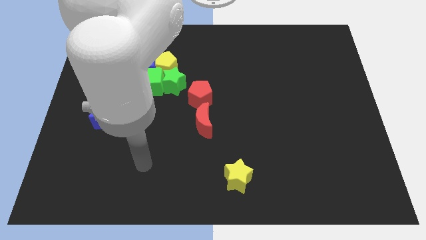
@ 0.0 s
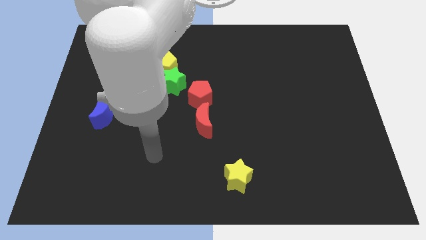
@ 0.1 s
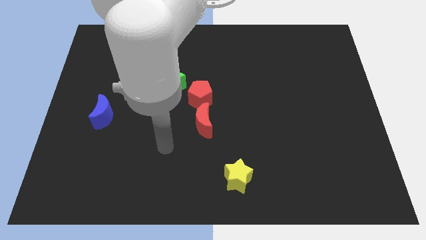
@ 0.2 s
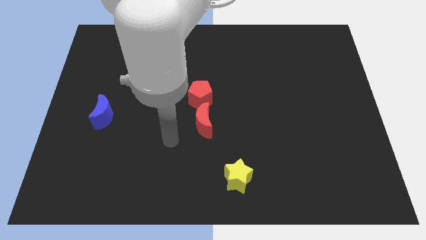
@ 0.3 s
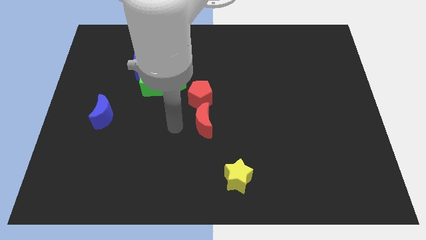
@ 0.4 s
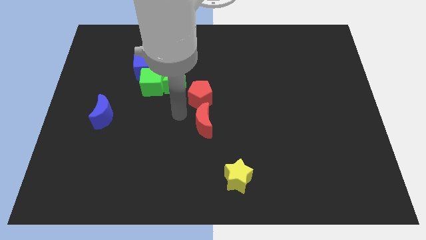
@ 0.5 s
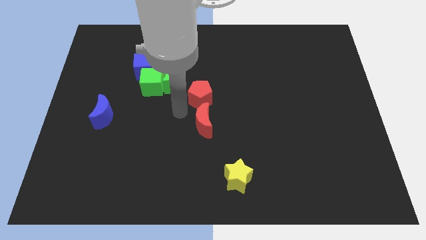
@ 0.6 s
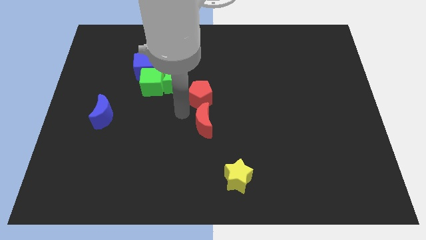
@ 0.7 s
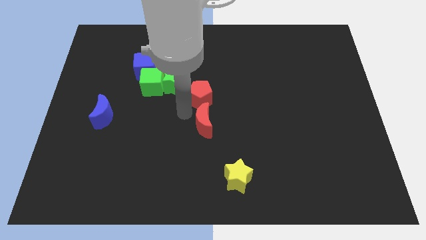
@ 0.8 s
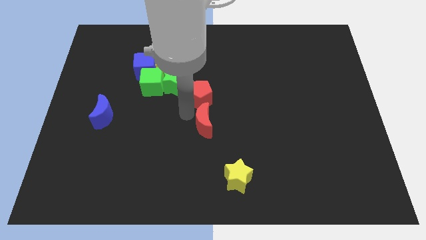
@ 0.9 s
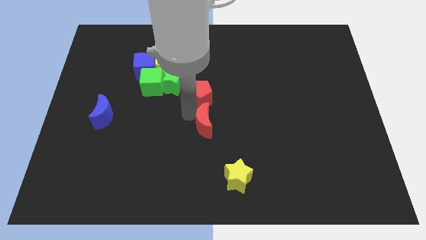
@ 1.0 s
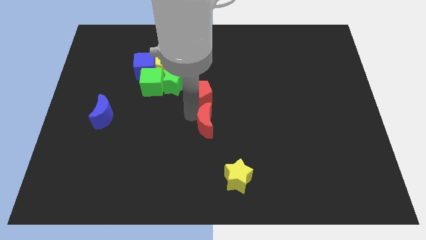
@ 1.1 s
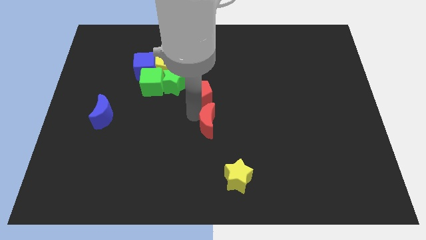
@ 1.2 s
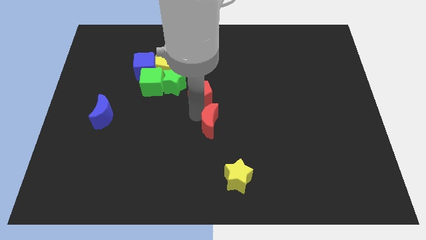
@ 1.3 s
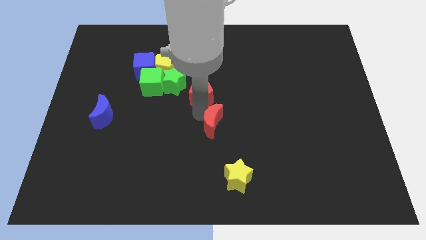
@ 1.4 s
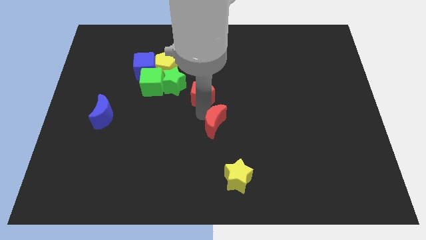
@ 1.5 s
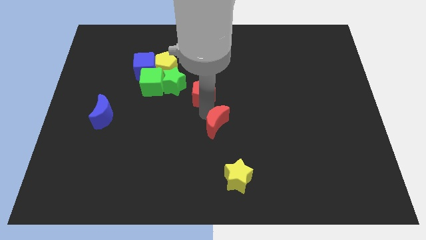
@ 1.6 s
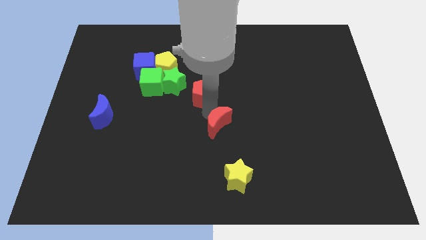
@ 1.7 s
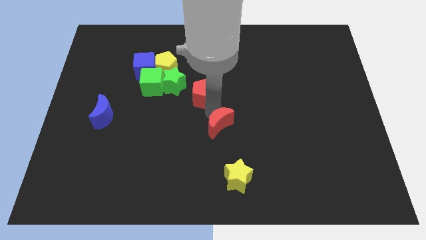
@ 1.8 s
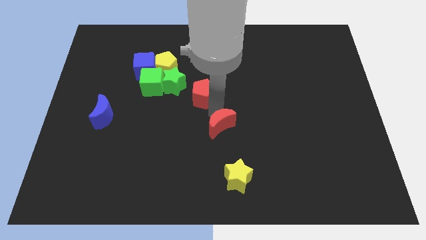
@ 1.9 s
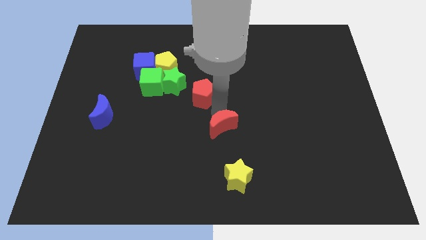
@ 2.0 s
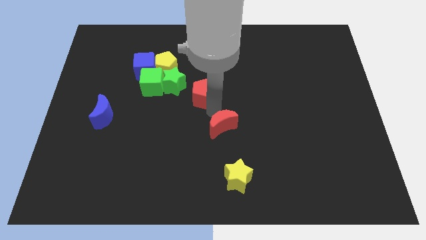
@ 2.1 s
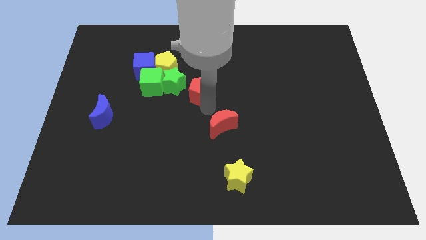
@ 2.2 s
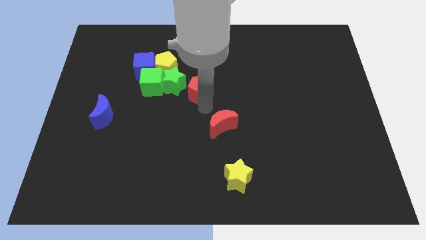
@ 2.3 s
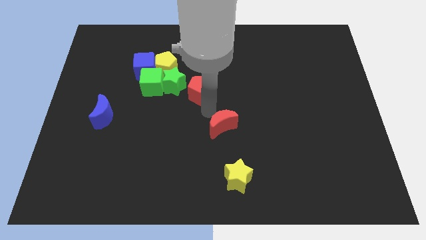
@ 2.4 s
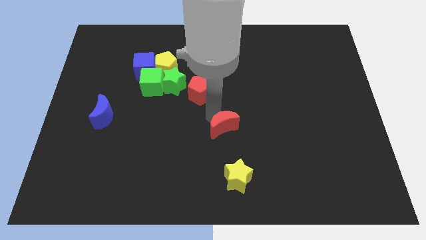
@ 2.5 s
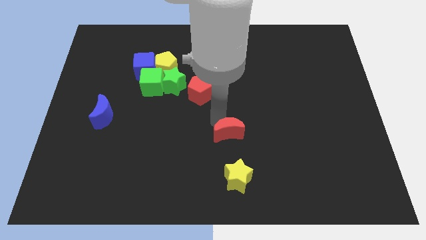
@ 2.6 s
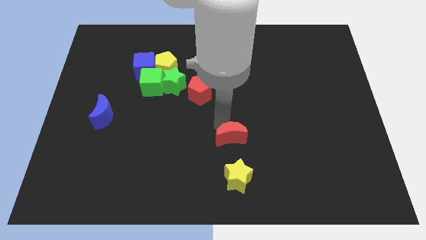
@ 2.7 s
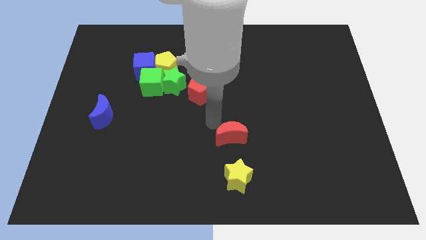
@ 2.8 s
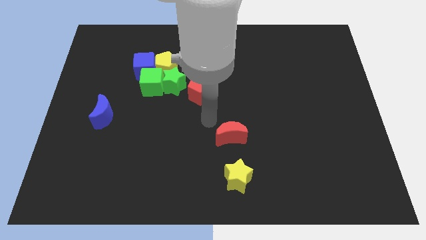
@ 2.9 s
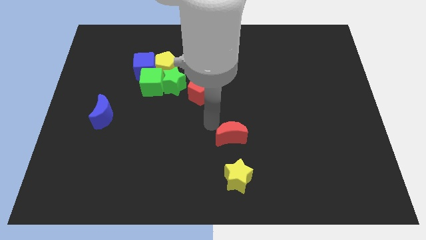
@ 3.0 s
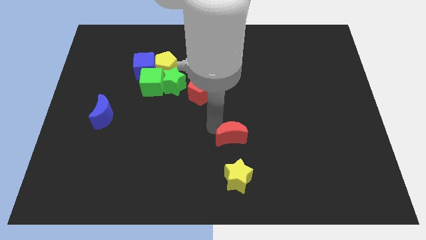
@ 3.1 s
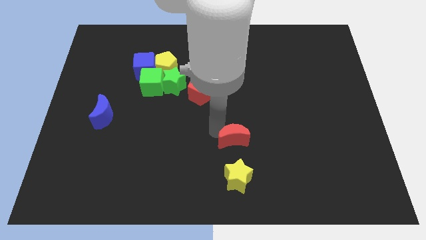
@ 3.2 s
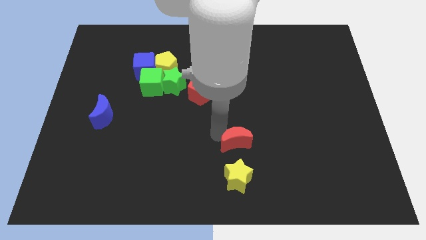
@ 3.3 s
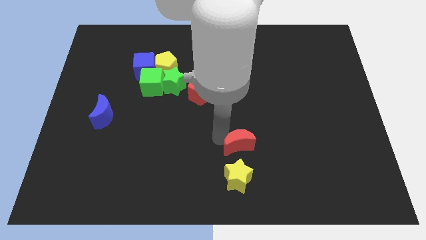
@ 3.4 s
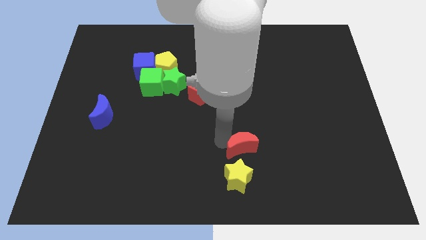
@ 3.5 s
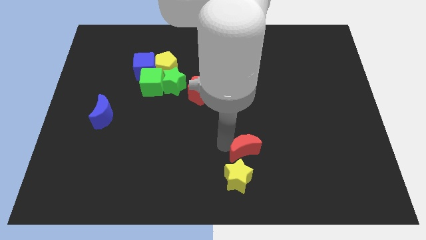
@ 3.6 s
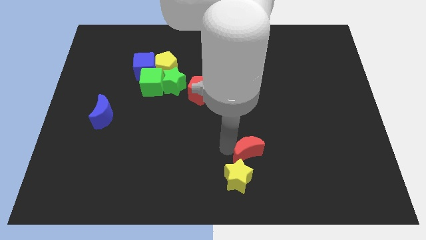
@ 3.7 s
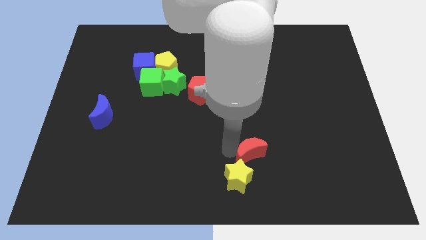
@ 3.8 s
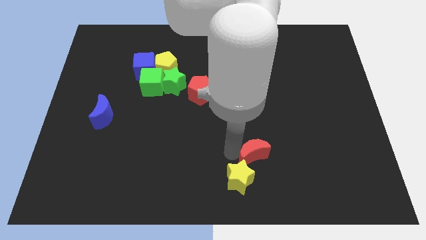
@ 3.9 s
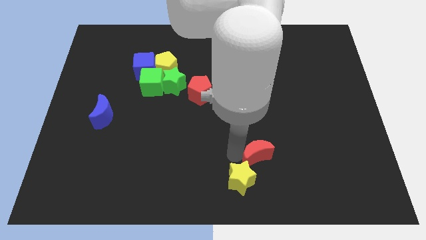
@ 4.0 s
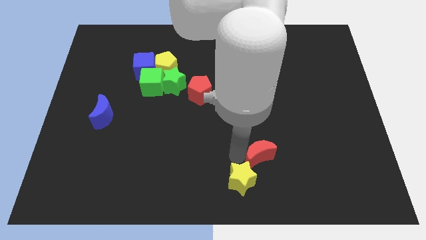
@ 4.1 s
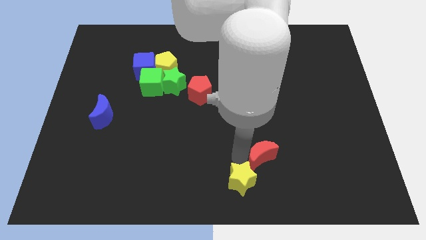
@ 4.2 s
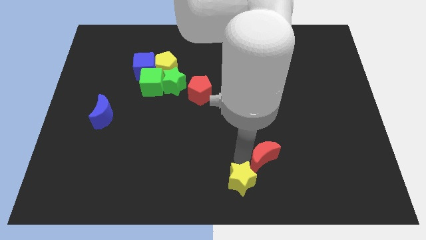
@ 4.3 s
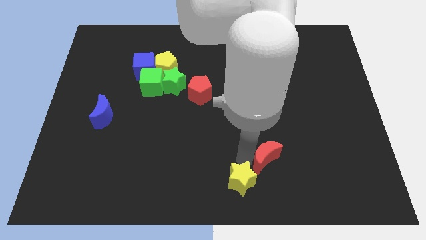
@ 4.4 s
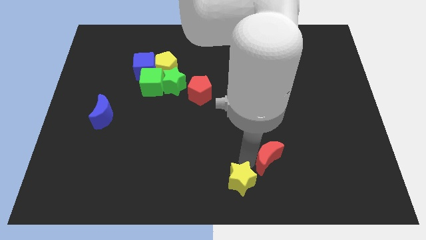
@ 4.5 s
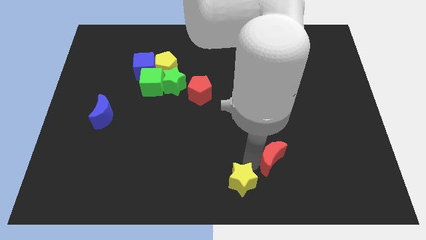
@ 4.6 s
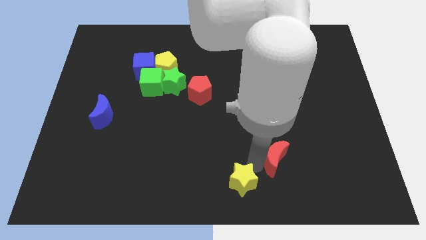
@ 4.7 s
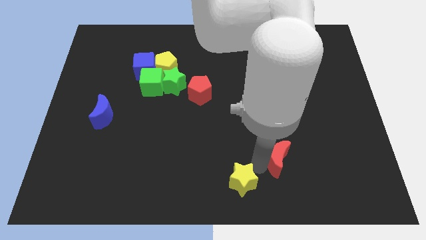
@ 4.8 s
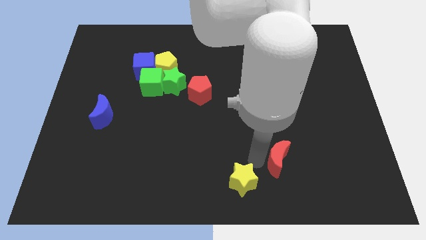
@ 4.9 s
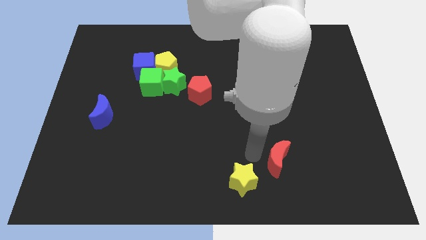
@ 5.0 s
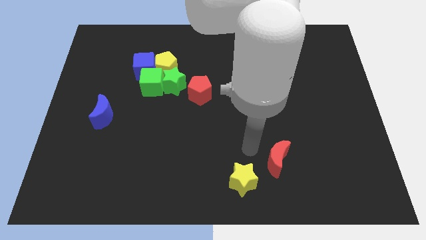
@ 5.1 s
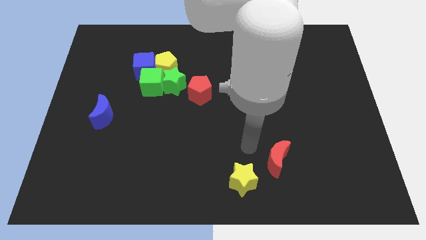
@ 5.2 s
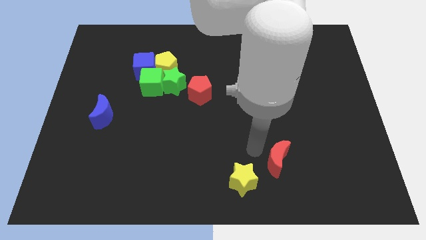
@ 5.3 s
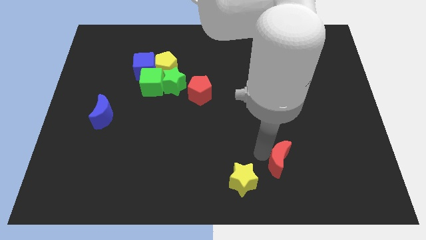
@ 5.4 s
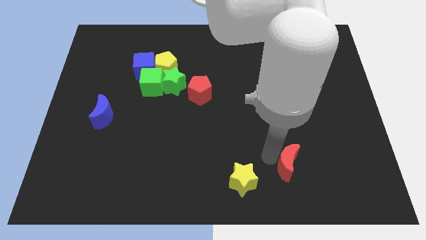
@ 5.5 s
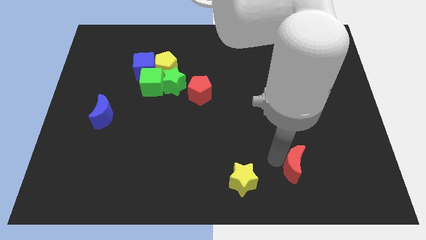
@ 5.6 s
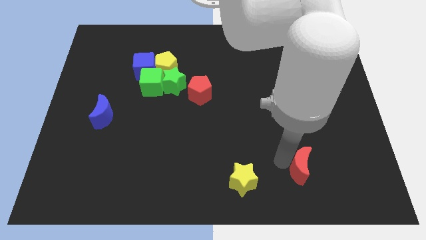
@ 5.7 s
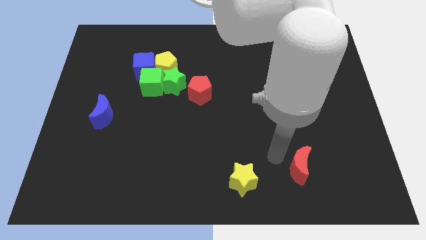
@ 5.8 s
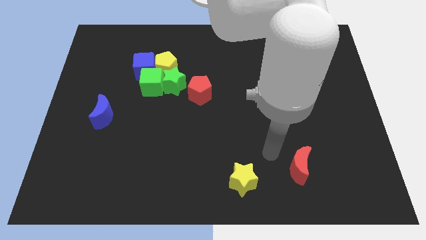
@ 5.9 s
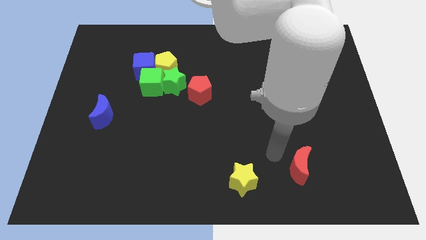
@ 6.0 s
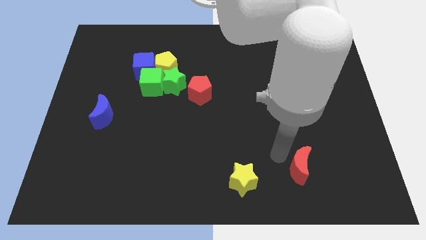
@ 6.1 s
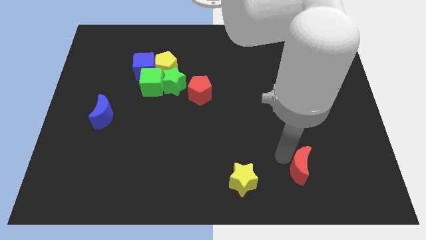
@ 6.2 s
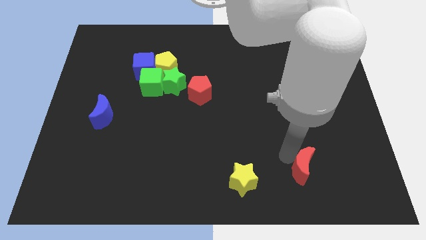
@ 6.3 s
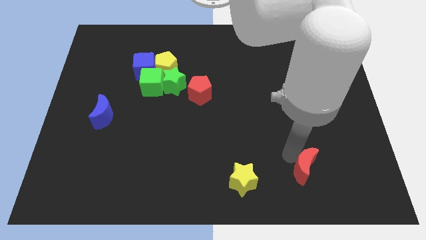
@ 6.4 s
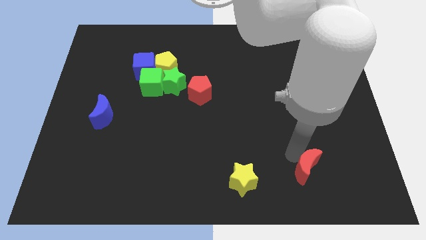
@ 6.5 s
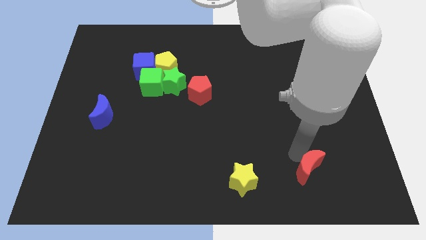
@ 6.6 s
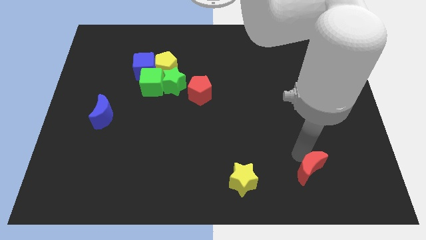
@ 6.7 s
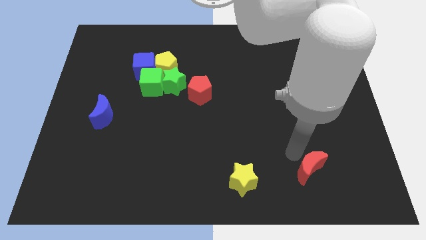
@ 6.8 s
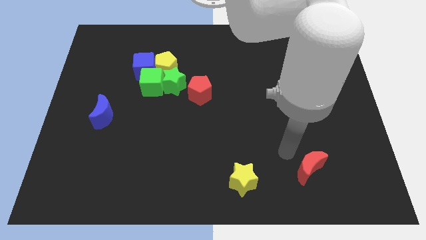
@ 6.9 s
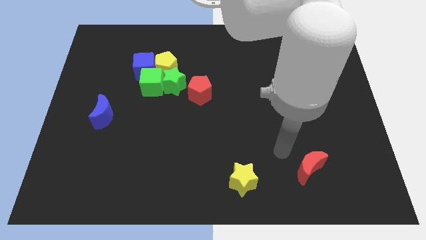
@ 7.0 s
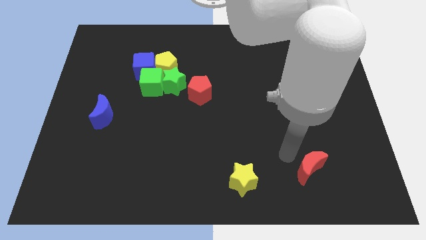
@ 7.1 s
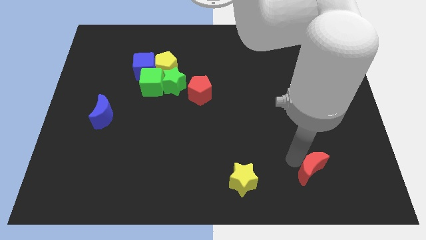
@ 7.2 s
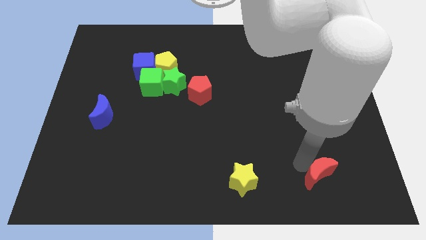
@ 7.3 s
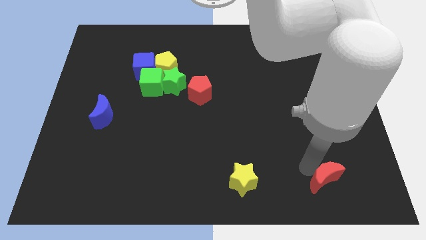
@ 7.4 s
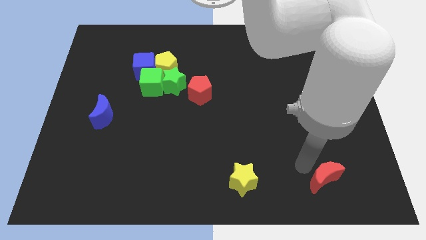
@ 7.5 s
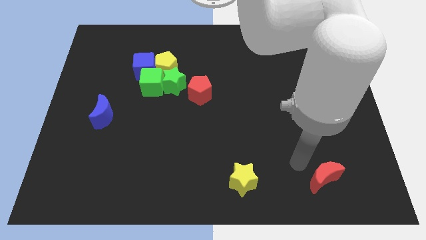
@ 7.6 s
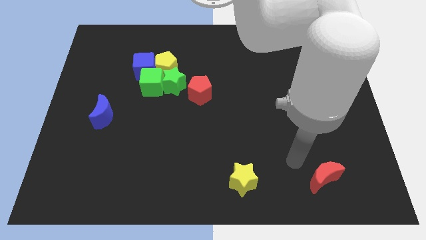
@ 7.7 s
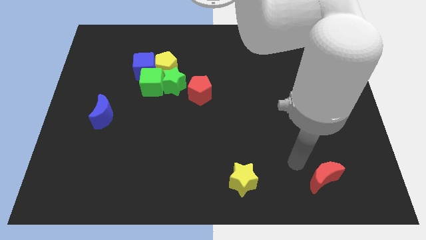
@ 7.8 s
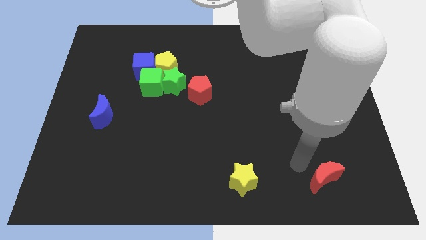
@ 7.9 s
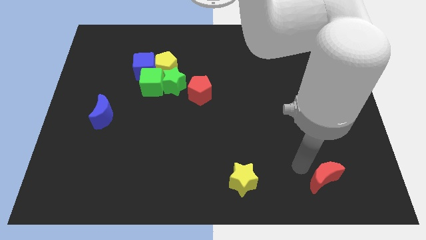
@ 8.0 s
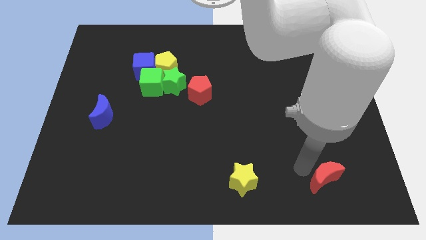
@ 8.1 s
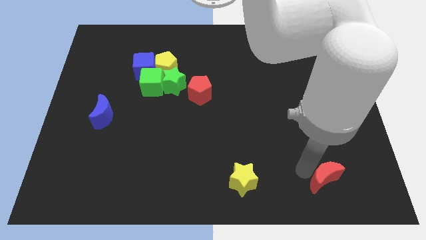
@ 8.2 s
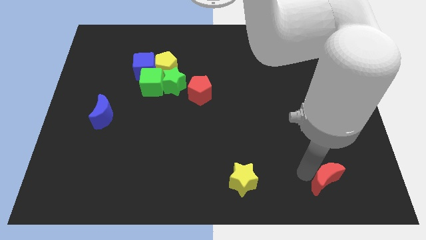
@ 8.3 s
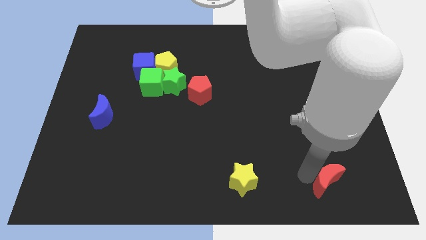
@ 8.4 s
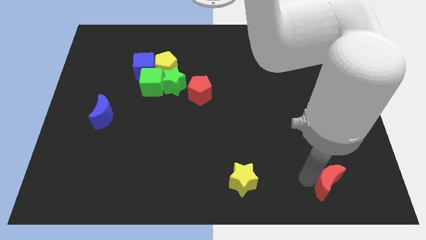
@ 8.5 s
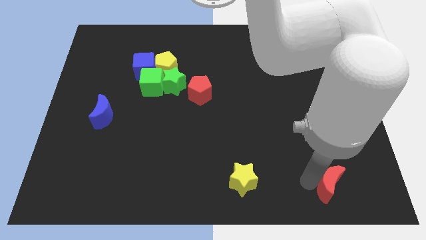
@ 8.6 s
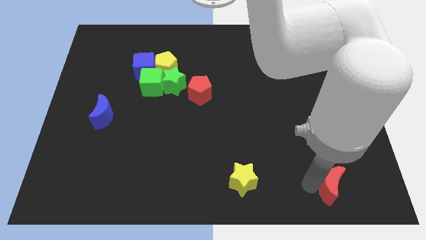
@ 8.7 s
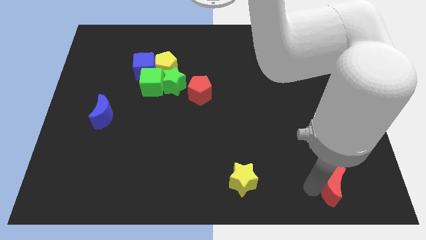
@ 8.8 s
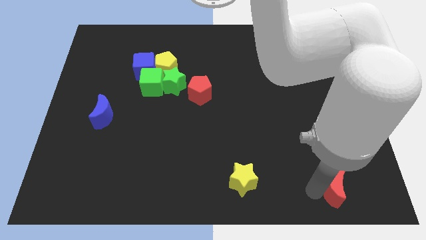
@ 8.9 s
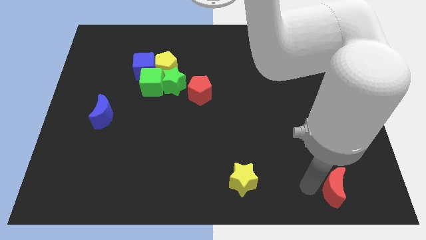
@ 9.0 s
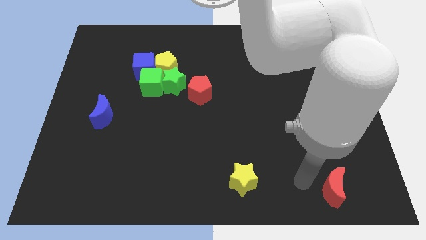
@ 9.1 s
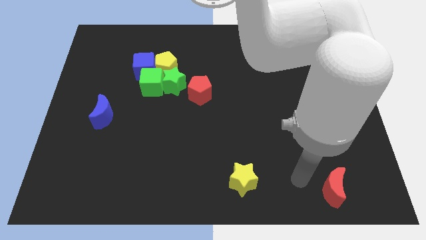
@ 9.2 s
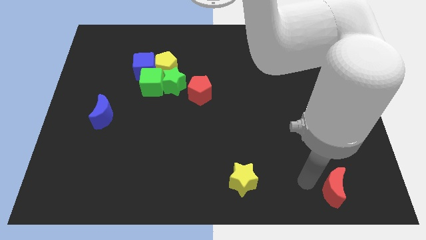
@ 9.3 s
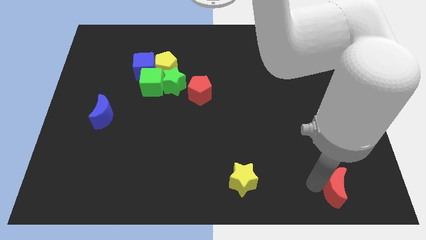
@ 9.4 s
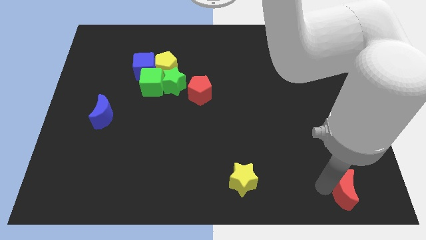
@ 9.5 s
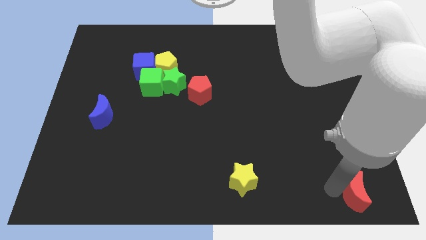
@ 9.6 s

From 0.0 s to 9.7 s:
move the red moon to the bottom right
